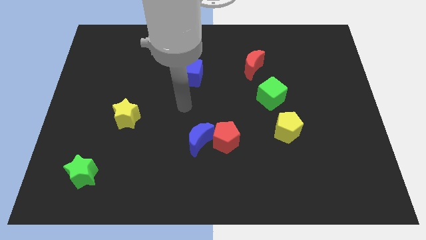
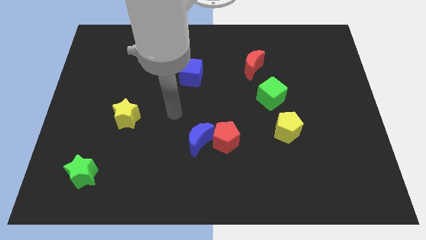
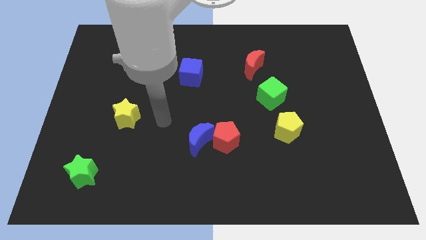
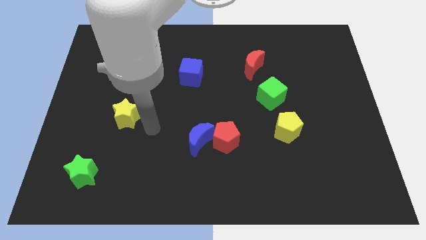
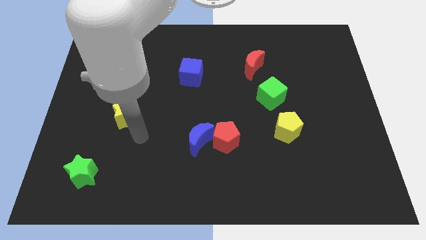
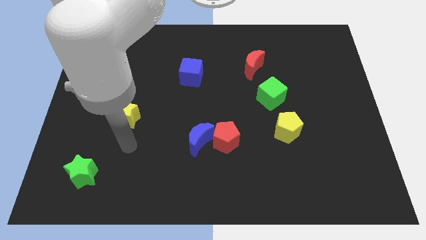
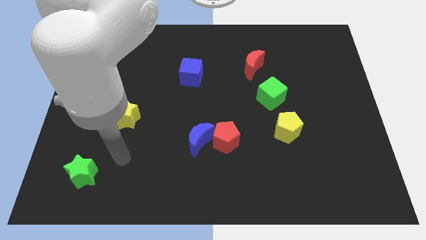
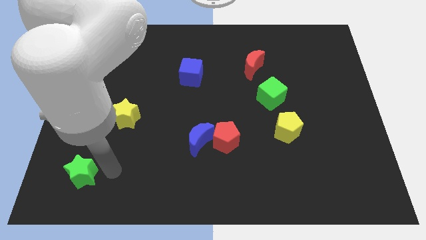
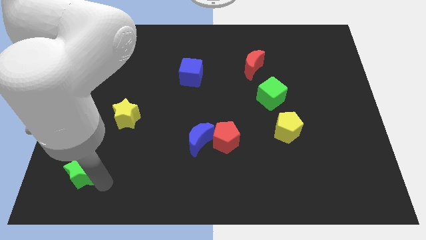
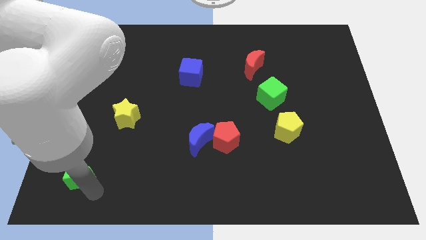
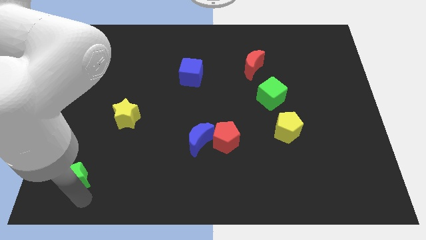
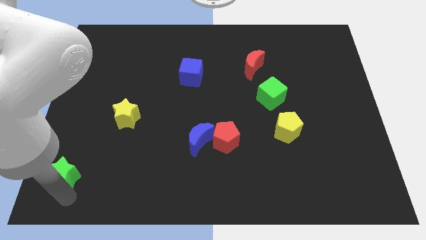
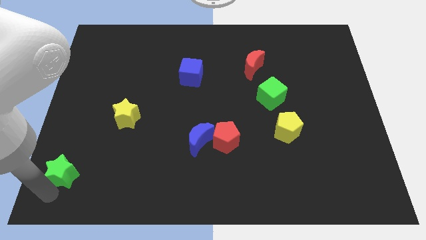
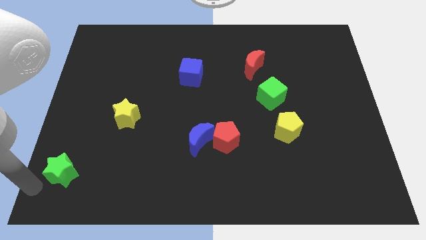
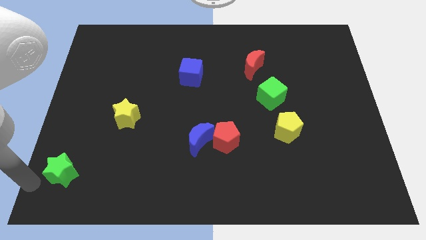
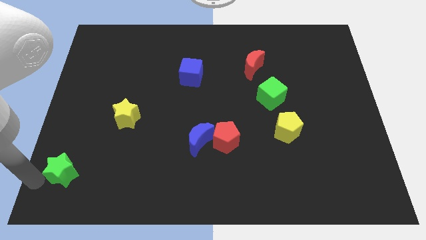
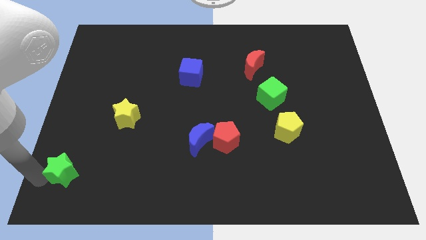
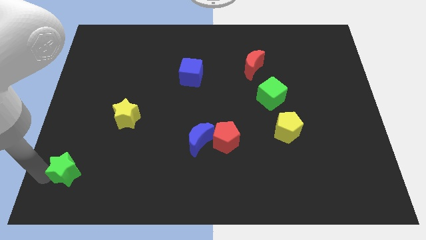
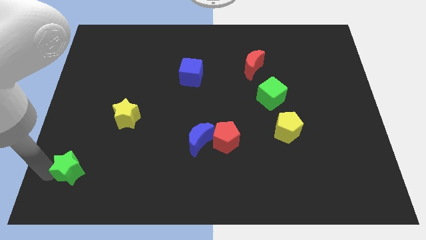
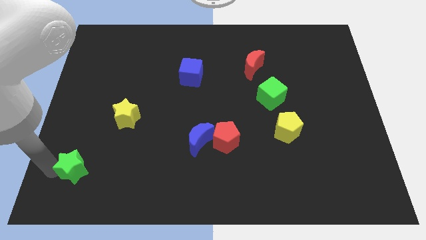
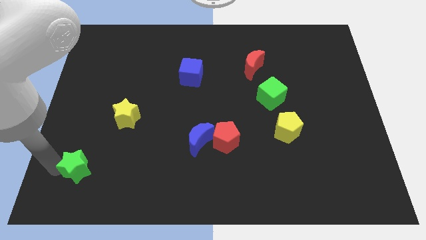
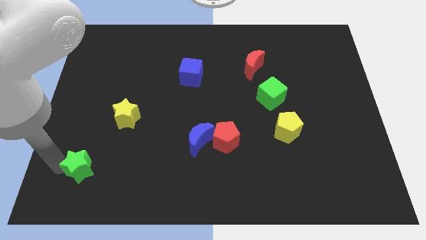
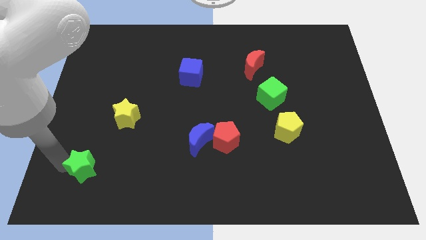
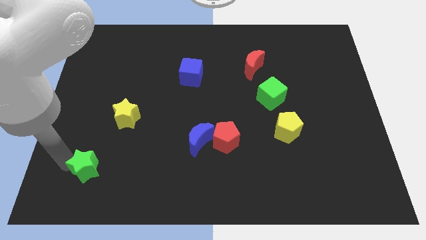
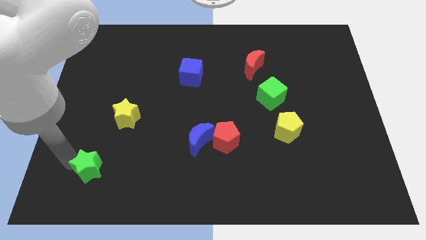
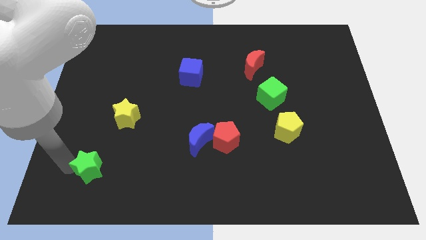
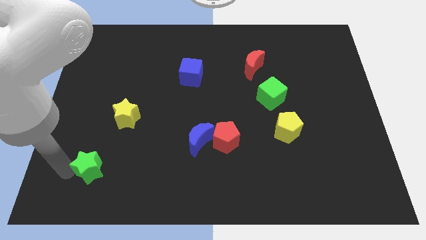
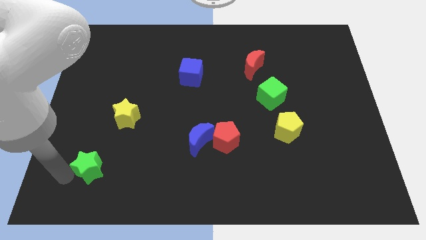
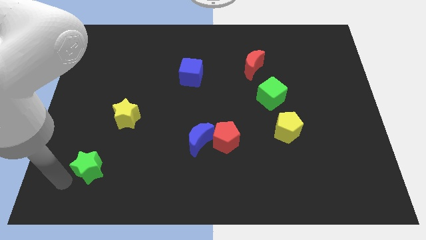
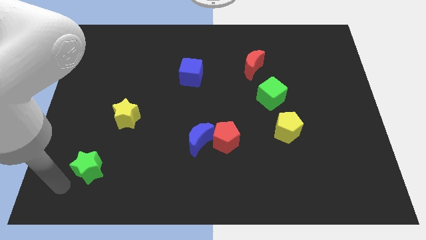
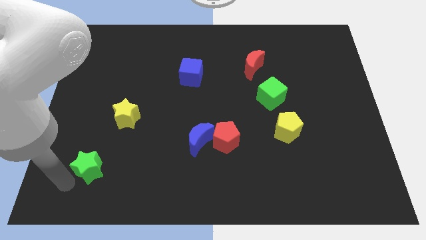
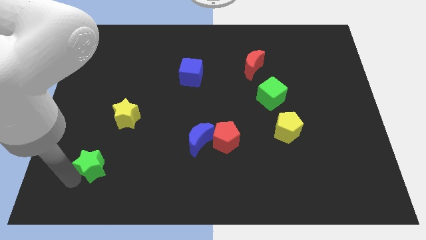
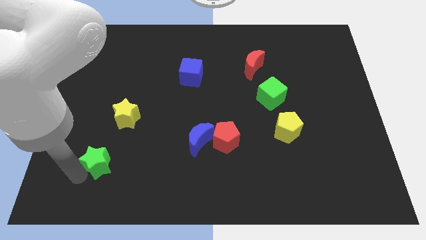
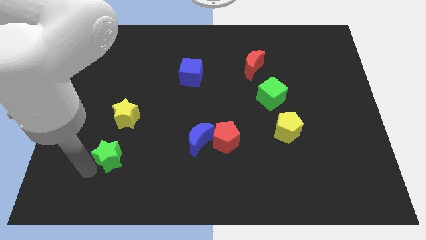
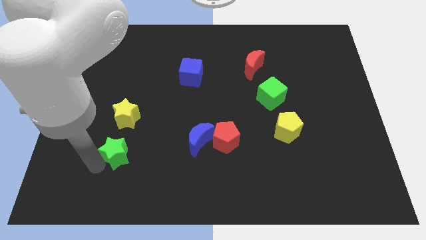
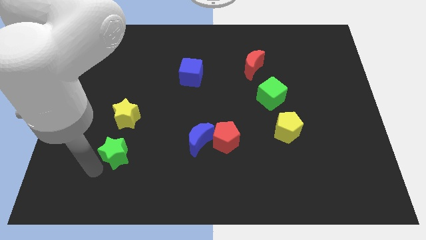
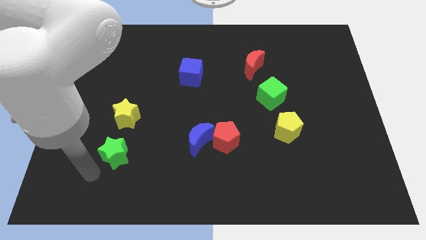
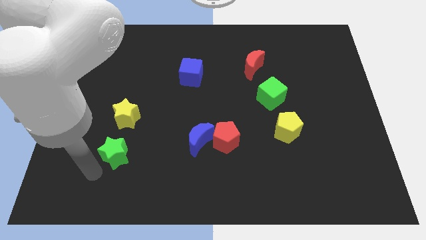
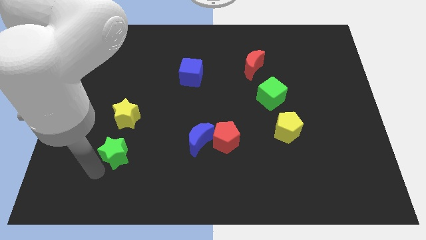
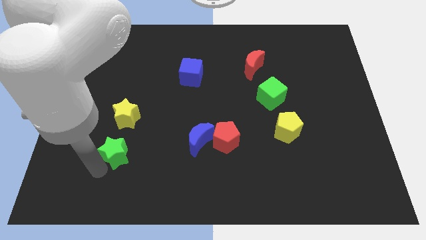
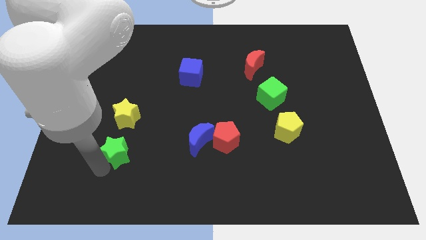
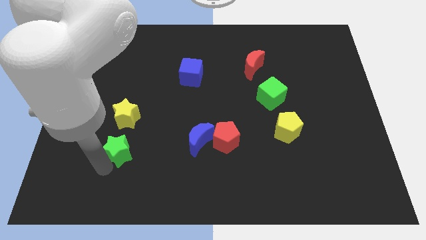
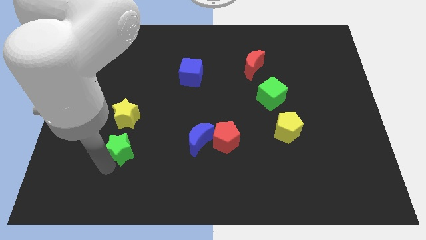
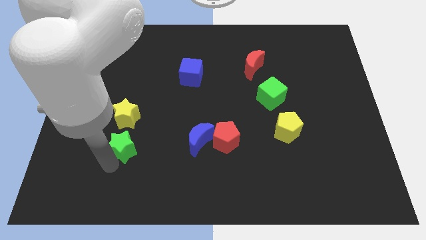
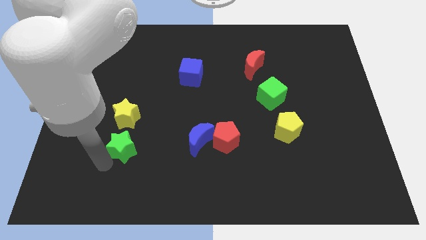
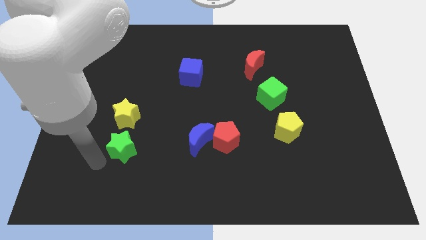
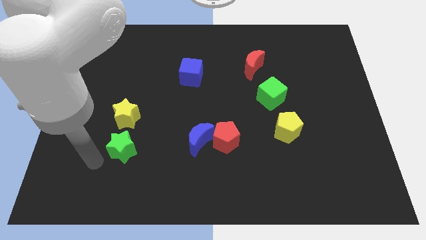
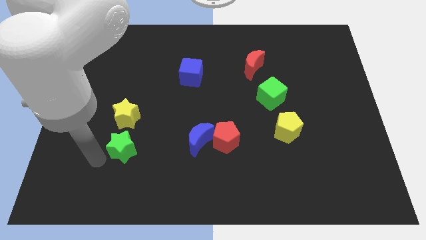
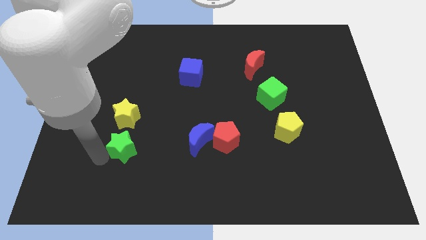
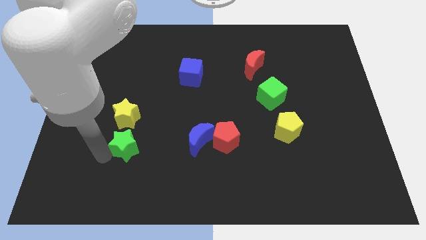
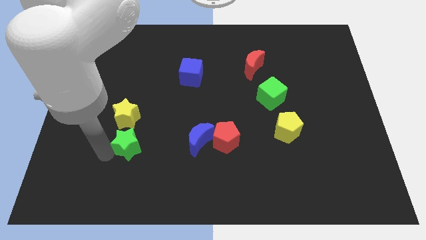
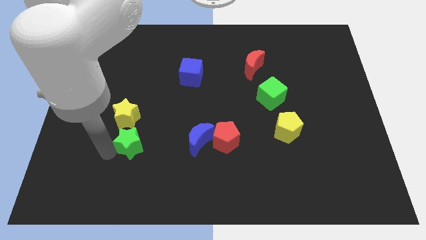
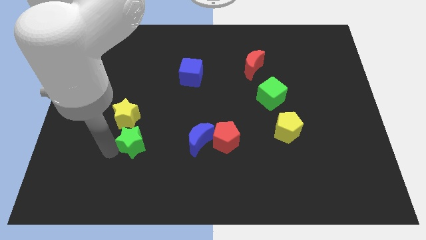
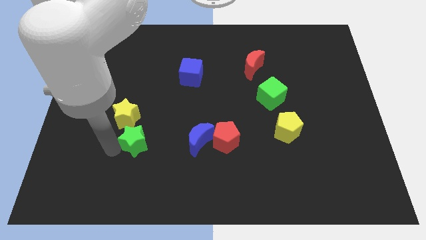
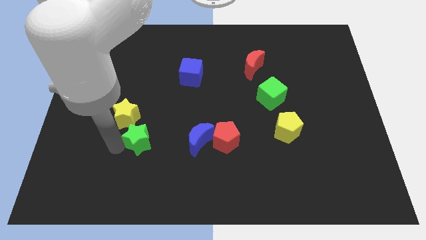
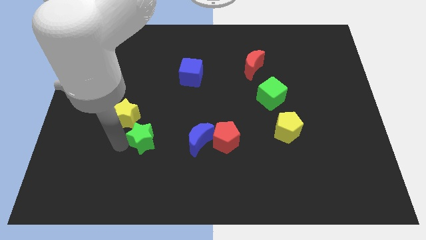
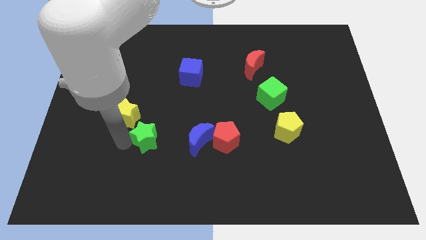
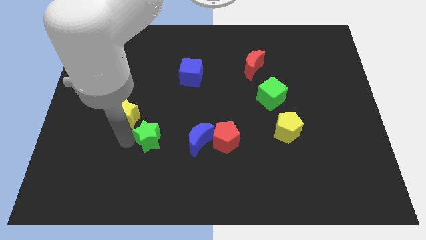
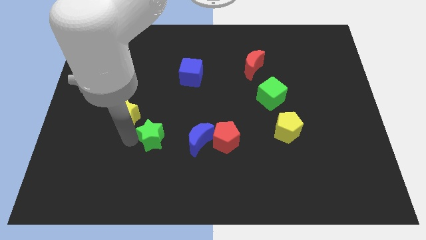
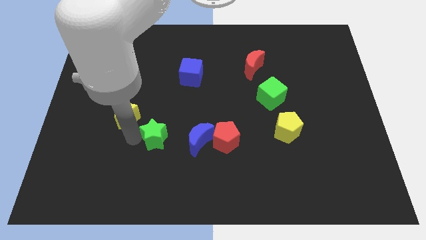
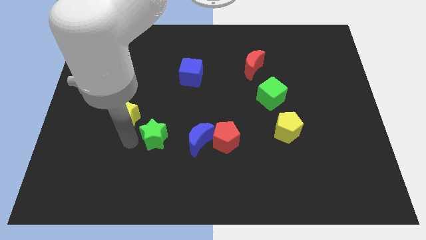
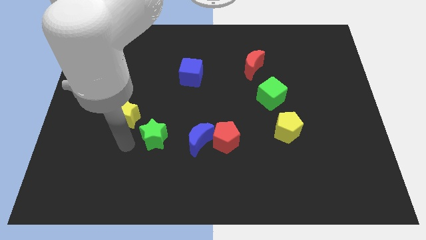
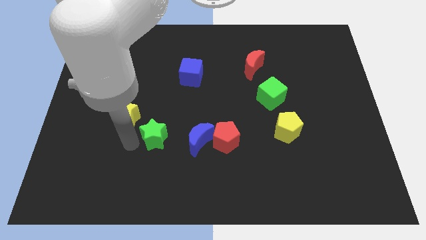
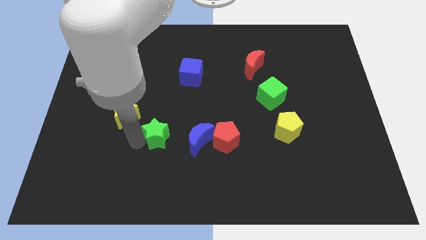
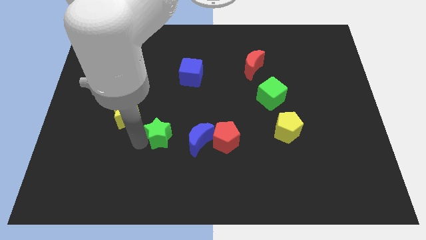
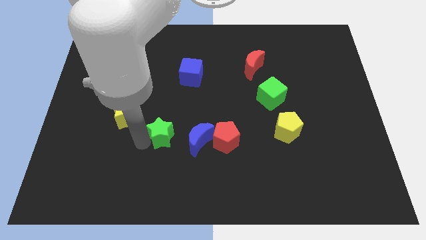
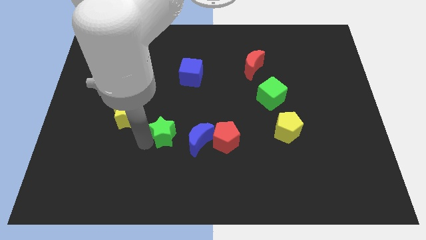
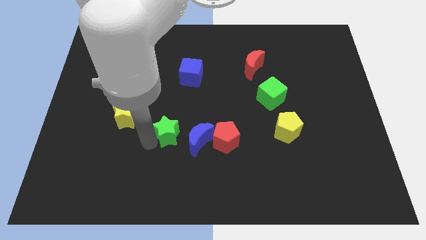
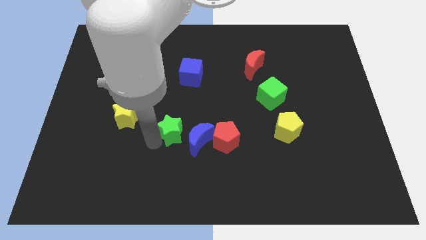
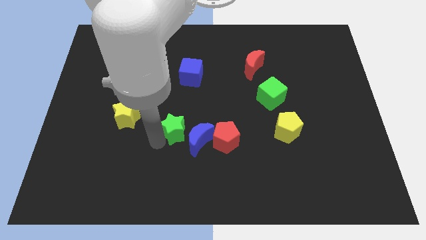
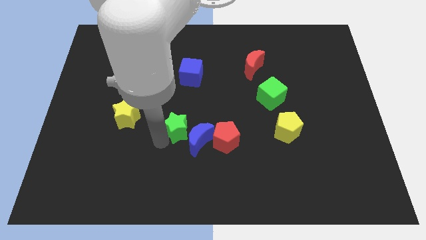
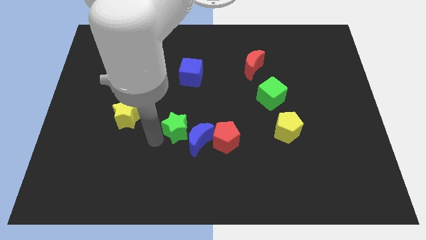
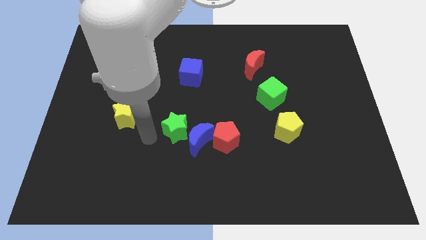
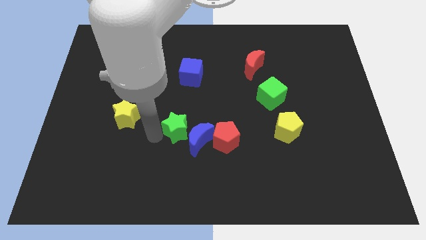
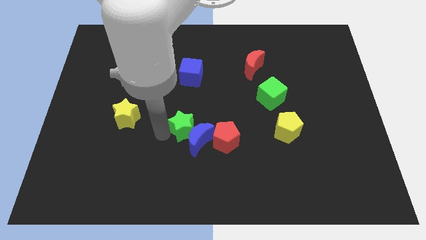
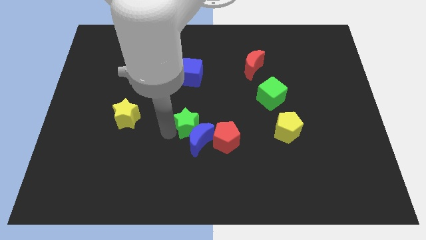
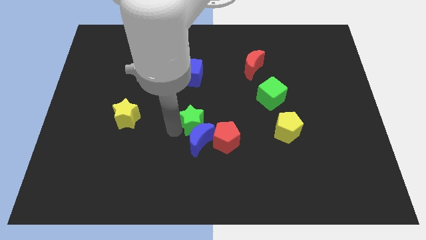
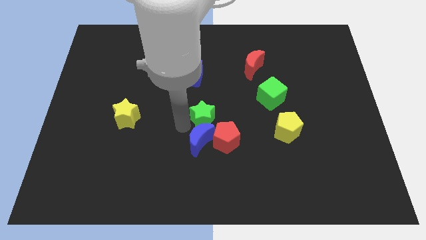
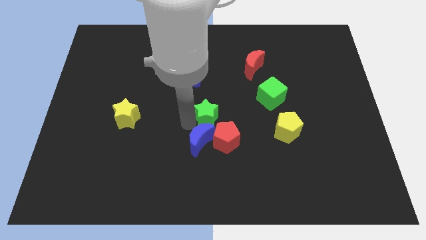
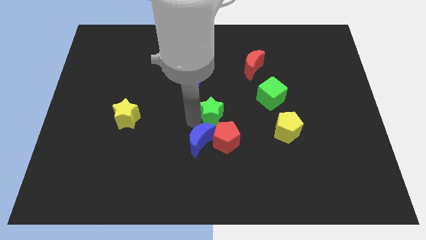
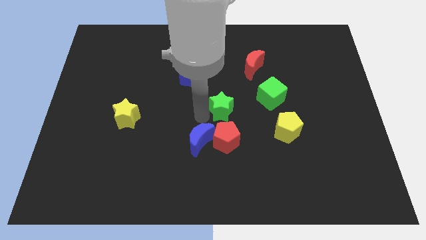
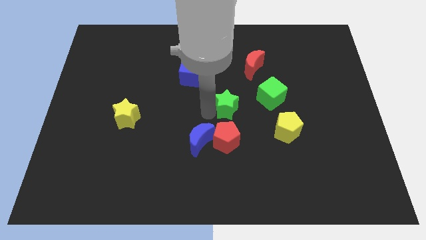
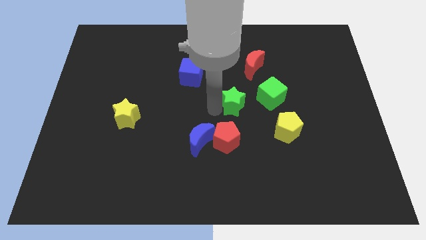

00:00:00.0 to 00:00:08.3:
push the green star diagonally down and to the left of the green cube

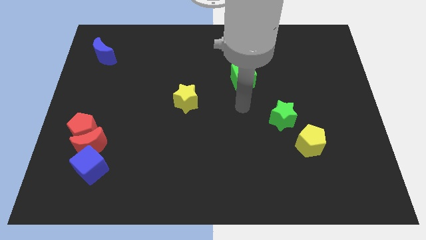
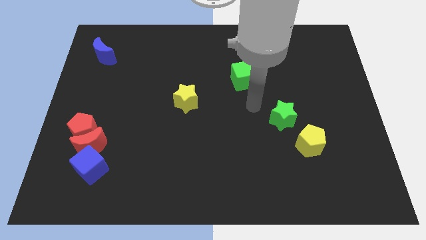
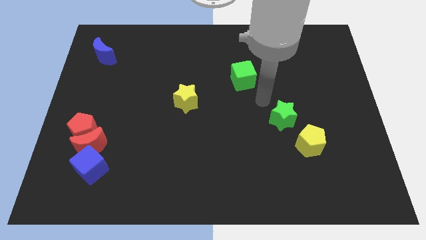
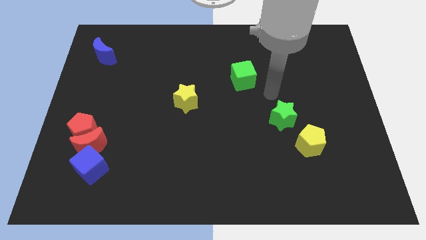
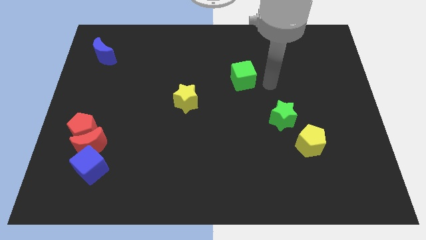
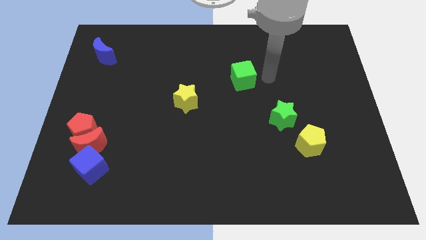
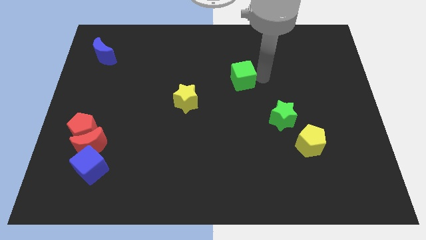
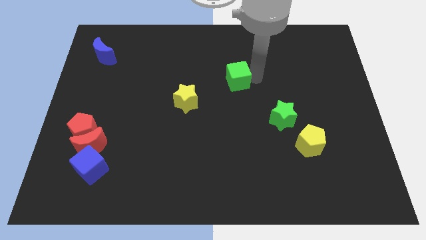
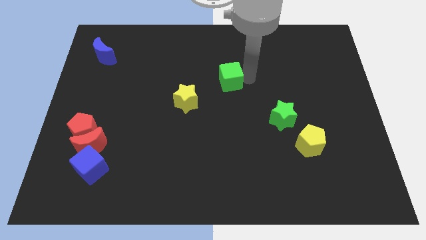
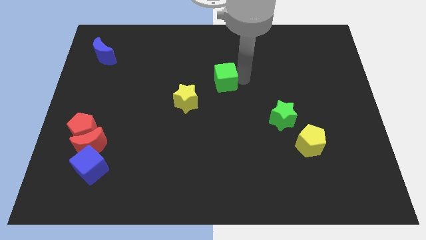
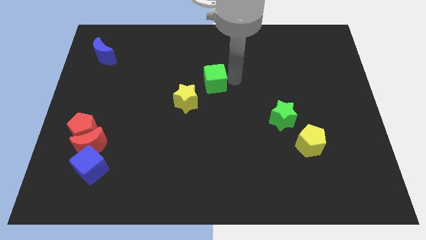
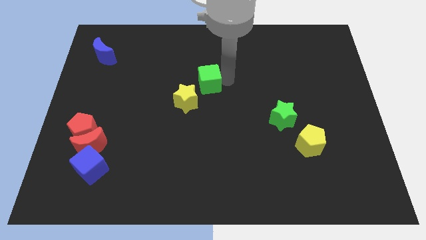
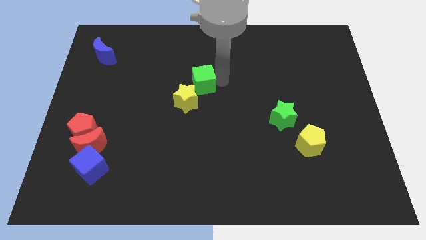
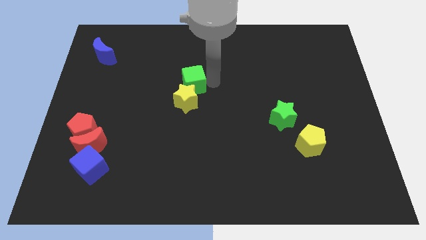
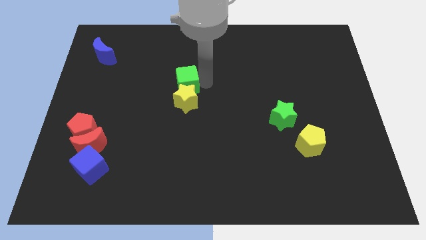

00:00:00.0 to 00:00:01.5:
put the green cube diagonally up and to the left of the yellow star
